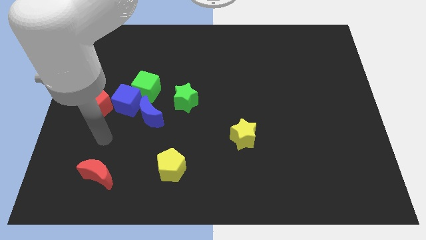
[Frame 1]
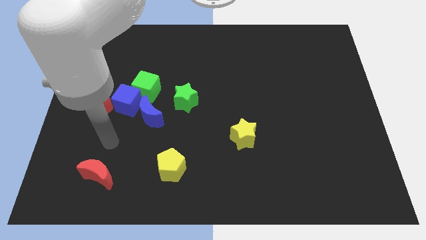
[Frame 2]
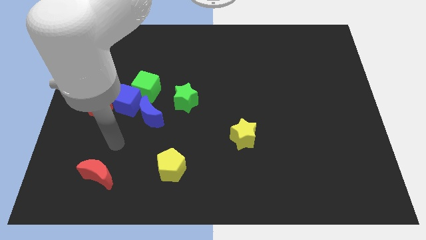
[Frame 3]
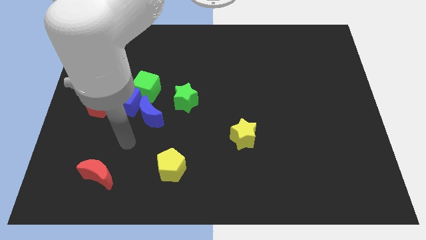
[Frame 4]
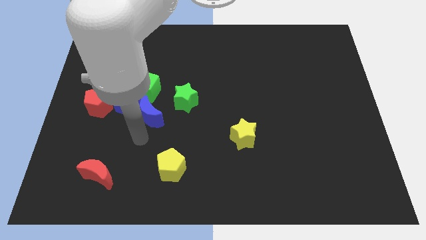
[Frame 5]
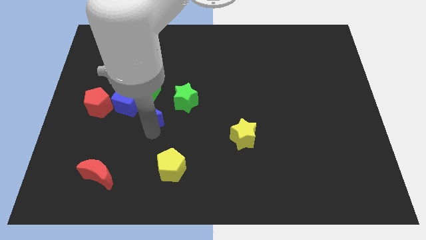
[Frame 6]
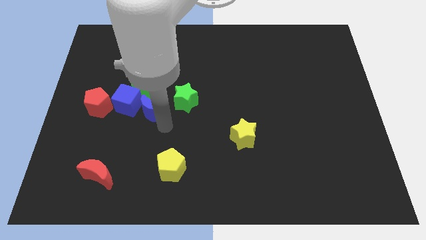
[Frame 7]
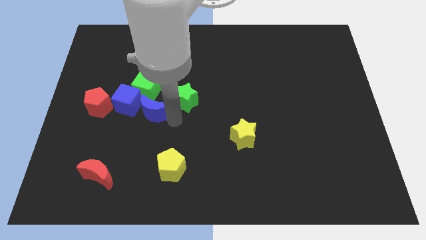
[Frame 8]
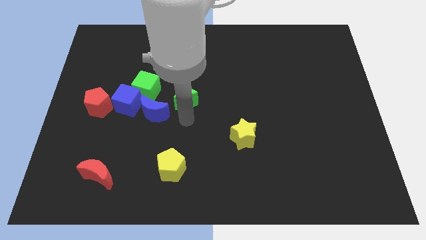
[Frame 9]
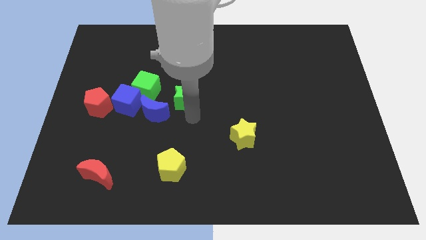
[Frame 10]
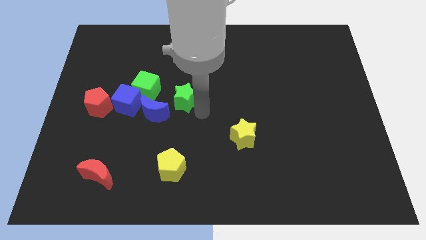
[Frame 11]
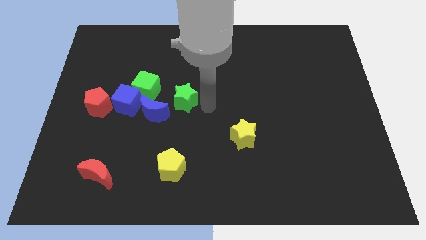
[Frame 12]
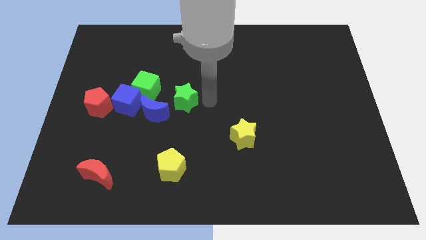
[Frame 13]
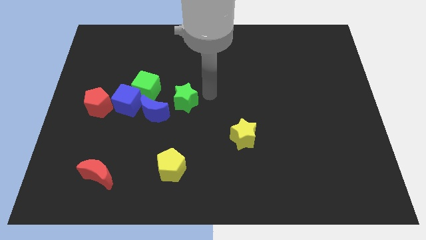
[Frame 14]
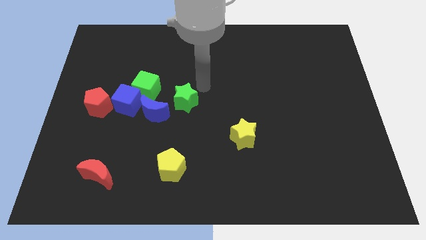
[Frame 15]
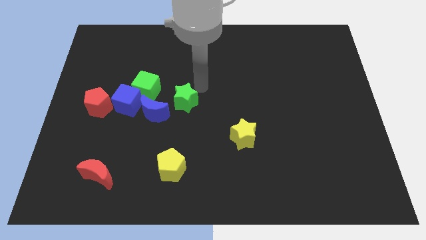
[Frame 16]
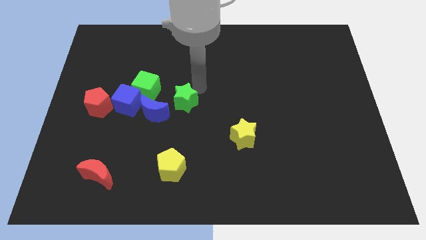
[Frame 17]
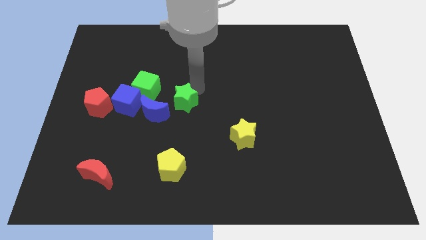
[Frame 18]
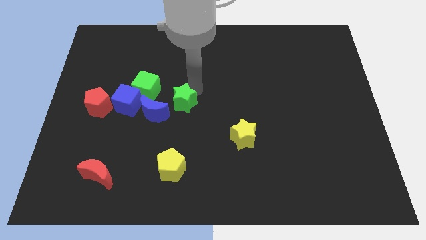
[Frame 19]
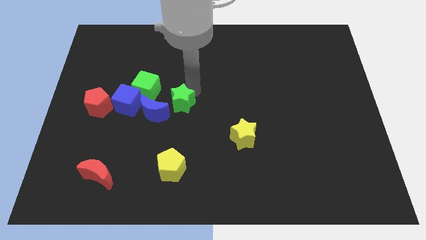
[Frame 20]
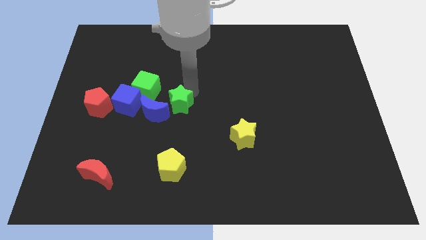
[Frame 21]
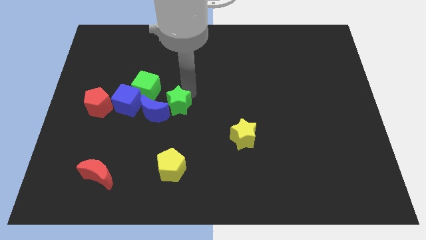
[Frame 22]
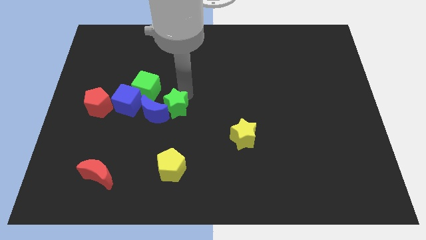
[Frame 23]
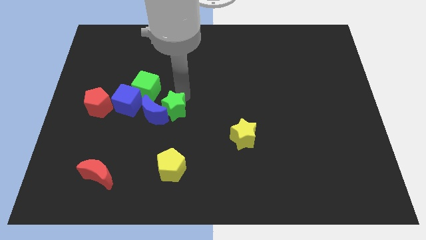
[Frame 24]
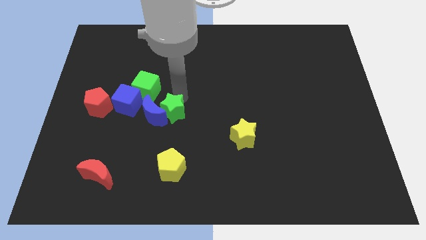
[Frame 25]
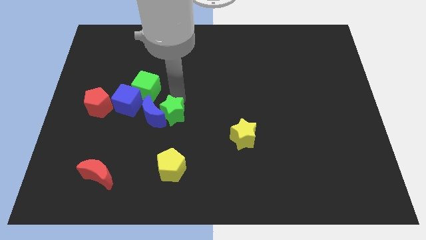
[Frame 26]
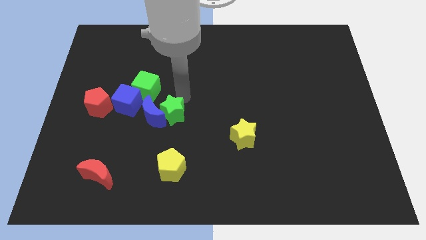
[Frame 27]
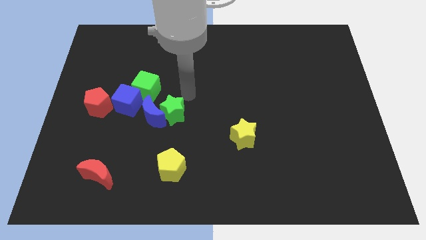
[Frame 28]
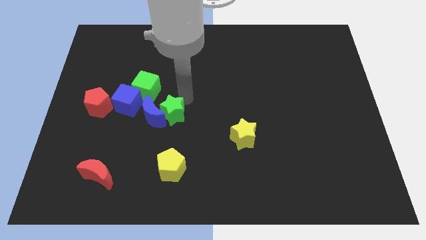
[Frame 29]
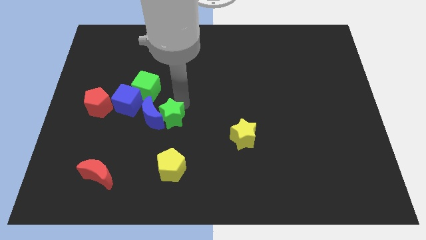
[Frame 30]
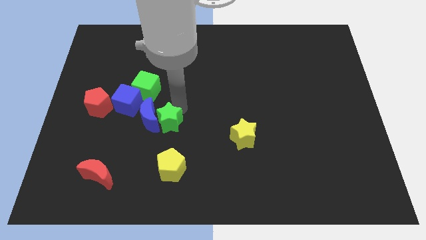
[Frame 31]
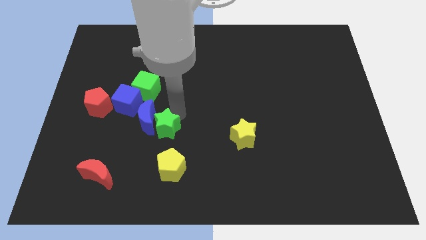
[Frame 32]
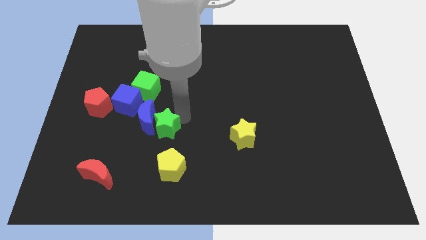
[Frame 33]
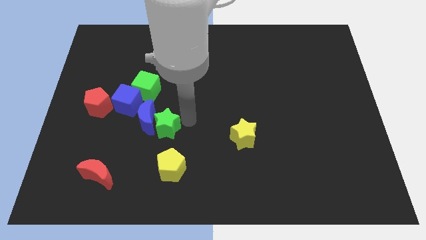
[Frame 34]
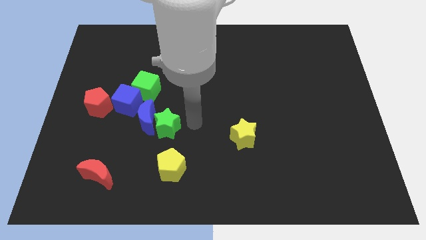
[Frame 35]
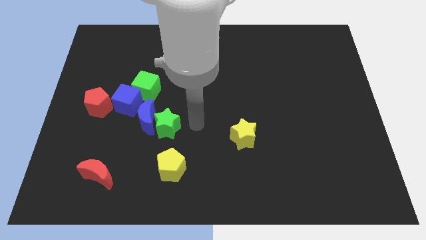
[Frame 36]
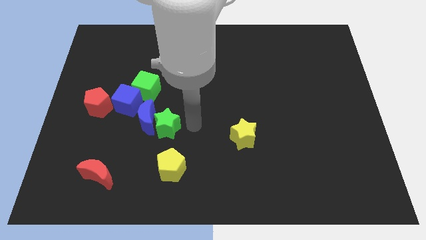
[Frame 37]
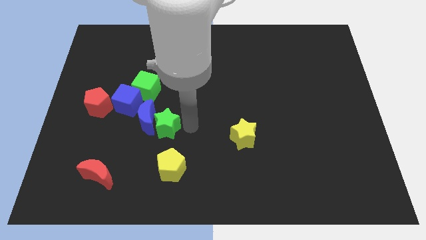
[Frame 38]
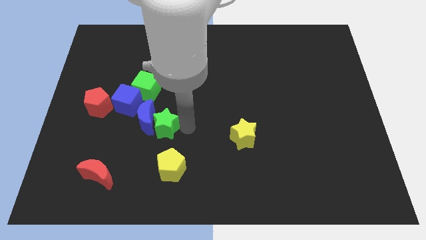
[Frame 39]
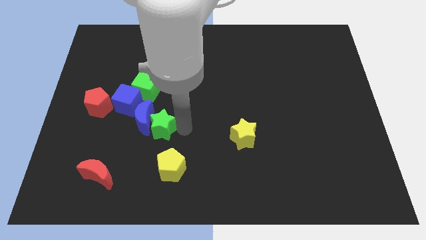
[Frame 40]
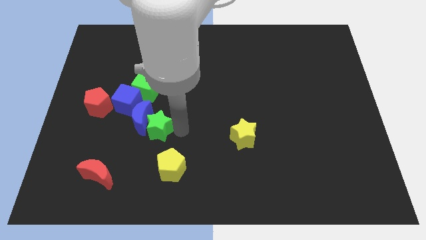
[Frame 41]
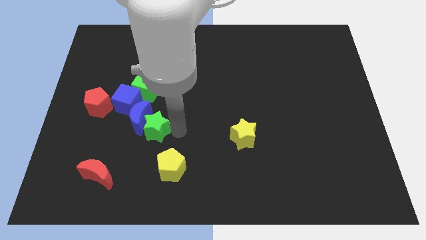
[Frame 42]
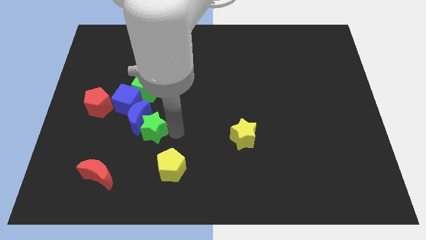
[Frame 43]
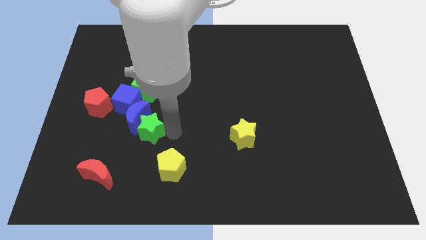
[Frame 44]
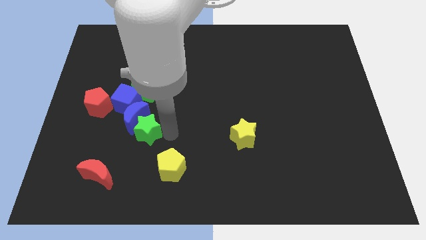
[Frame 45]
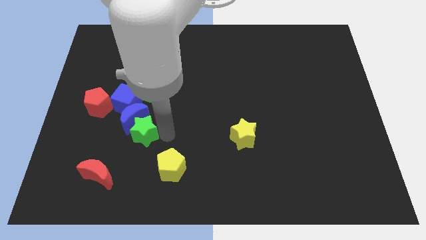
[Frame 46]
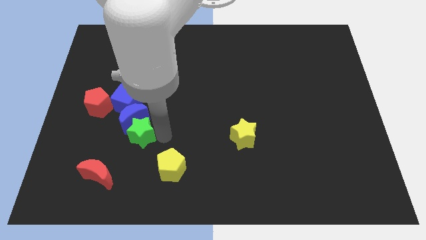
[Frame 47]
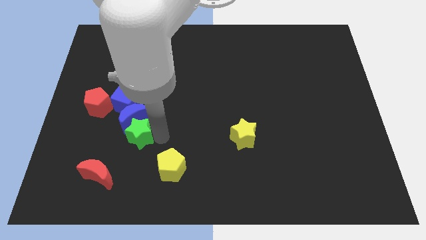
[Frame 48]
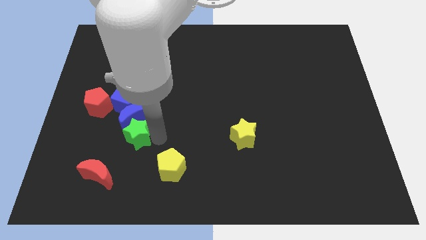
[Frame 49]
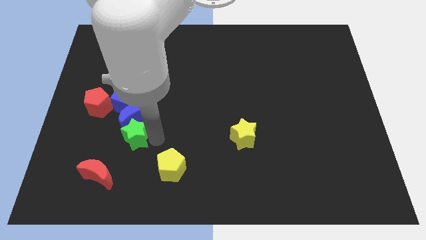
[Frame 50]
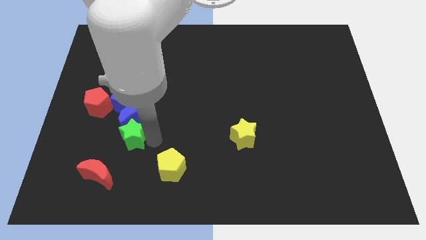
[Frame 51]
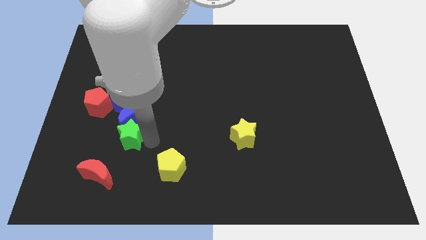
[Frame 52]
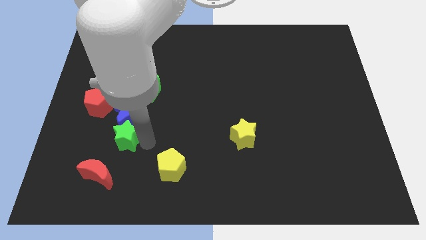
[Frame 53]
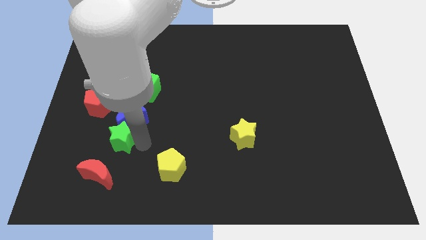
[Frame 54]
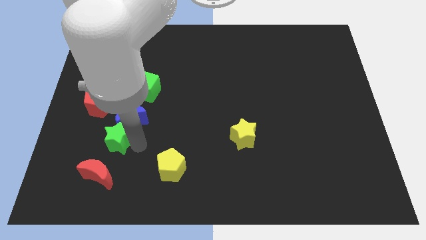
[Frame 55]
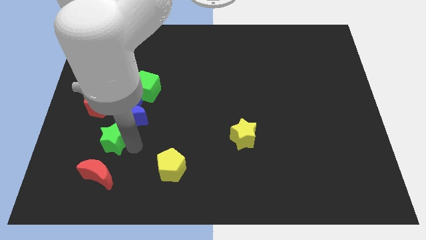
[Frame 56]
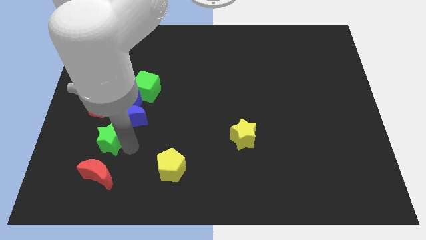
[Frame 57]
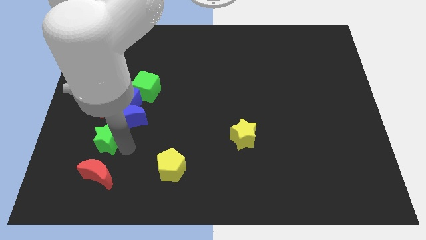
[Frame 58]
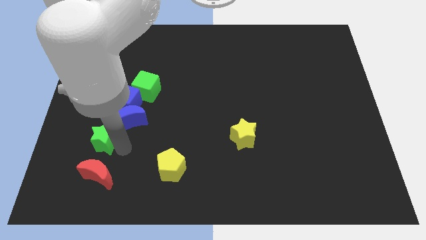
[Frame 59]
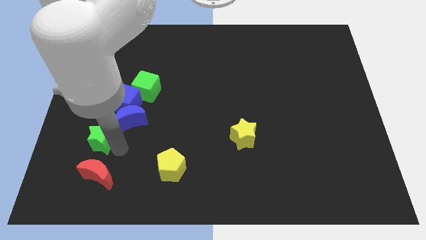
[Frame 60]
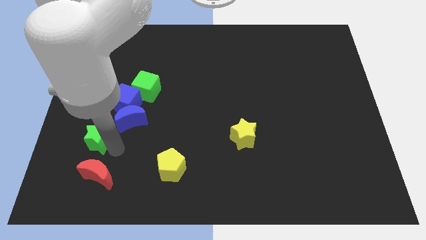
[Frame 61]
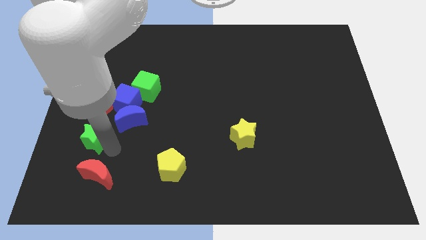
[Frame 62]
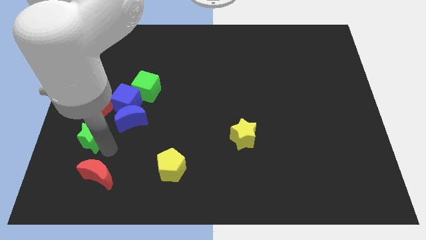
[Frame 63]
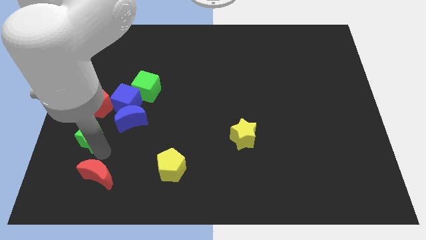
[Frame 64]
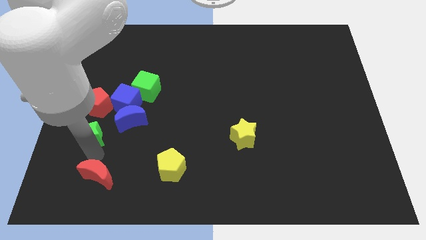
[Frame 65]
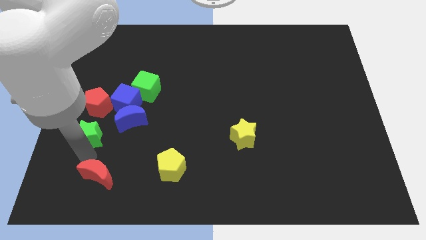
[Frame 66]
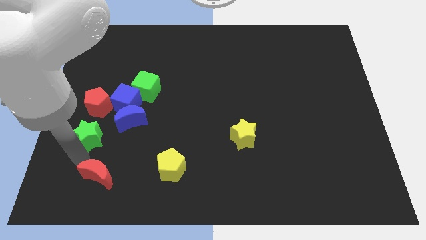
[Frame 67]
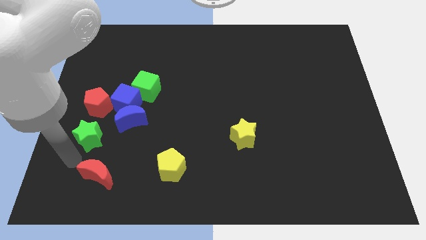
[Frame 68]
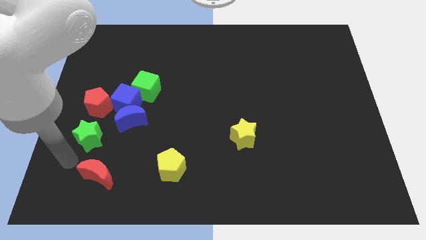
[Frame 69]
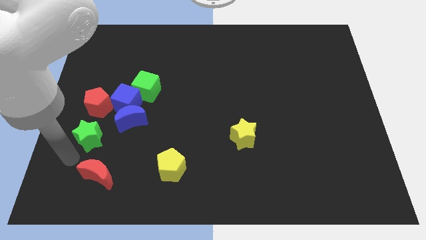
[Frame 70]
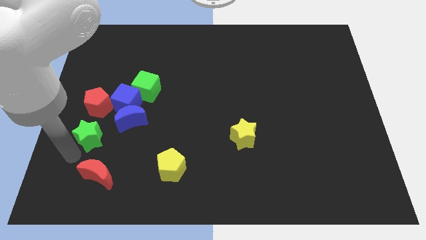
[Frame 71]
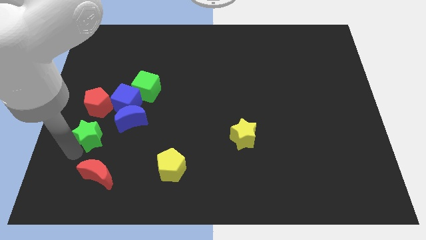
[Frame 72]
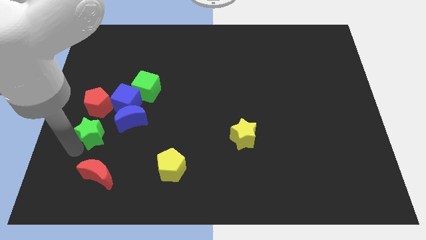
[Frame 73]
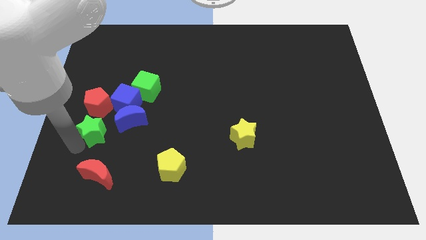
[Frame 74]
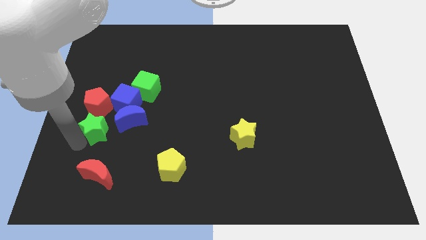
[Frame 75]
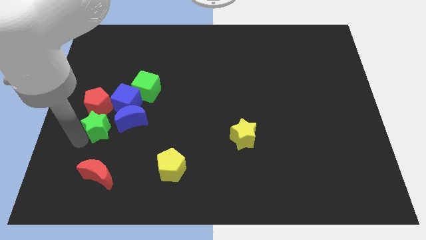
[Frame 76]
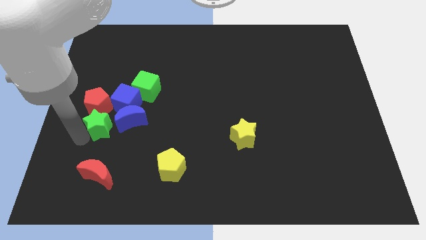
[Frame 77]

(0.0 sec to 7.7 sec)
push the green star close to the red pentagon
